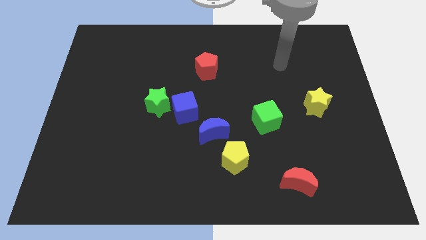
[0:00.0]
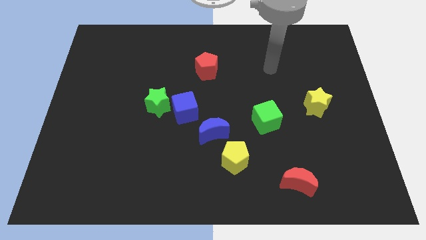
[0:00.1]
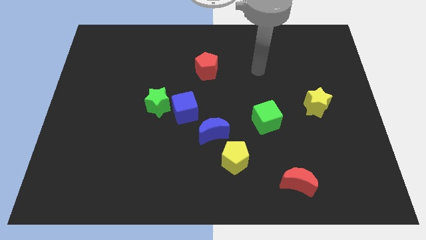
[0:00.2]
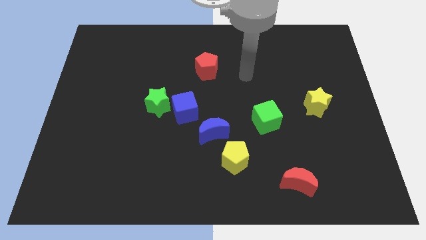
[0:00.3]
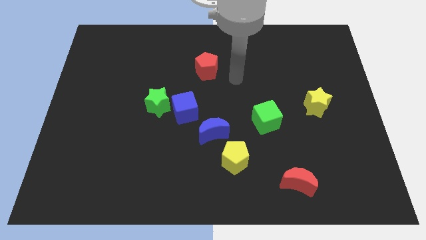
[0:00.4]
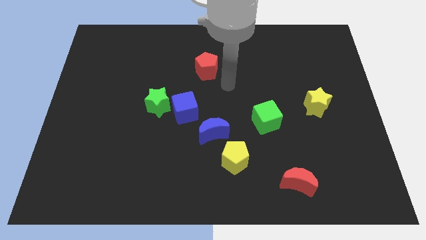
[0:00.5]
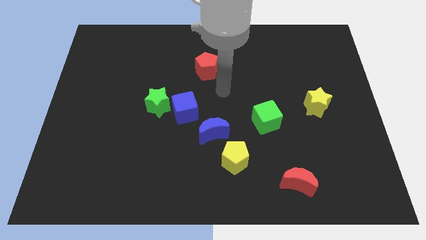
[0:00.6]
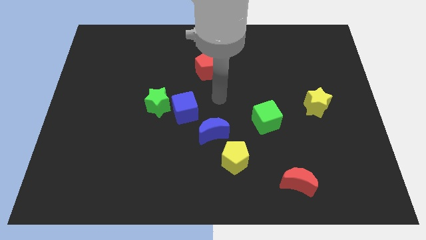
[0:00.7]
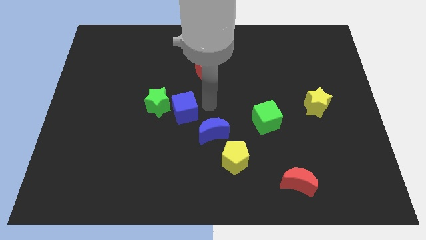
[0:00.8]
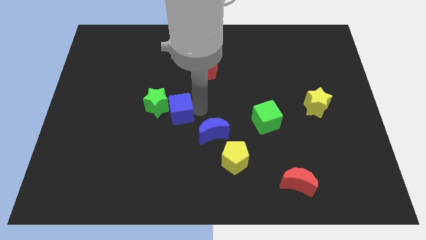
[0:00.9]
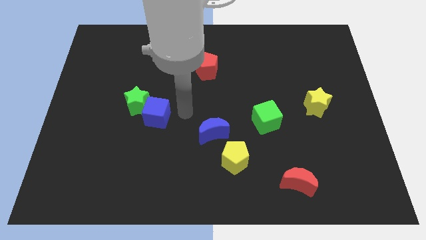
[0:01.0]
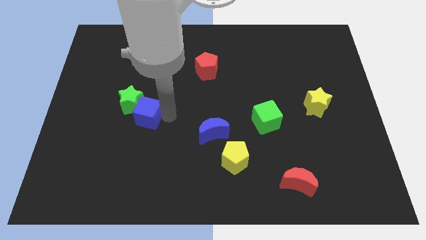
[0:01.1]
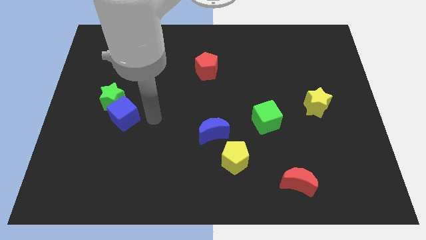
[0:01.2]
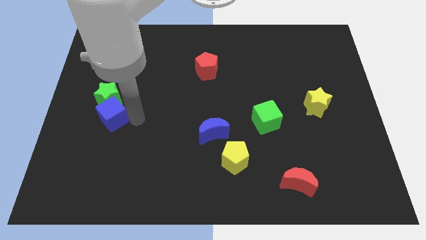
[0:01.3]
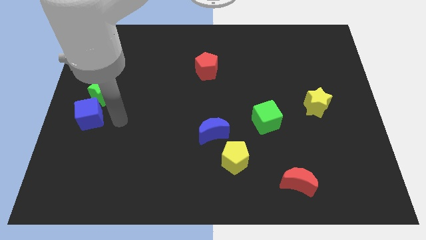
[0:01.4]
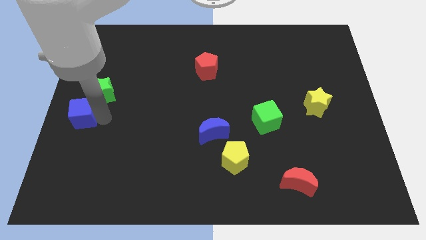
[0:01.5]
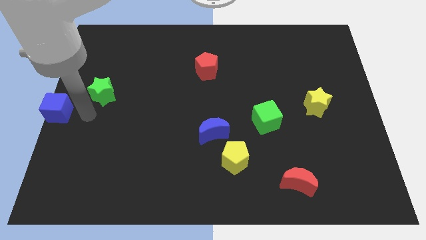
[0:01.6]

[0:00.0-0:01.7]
pull the green star apart from the blue cube

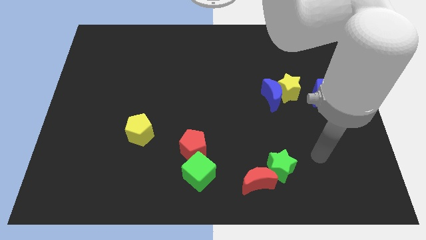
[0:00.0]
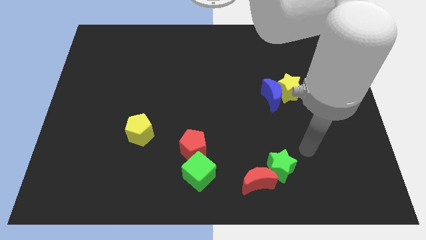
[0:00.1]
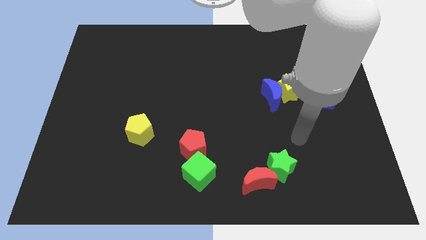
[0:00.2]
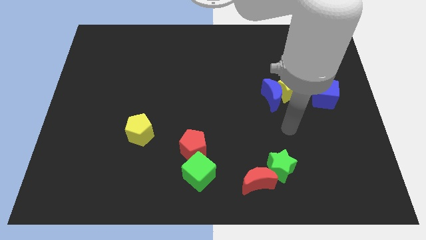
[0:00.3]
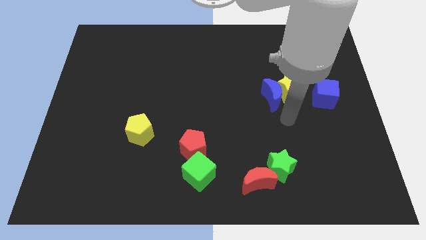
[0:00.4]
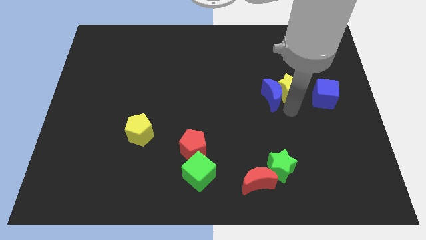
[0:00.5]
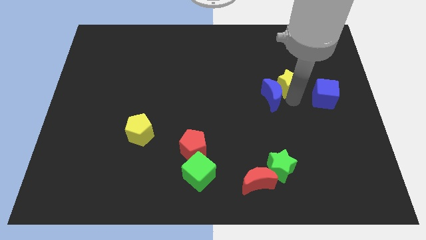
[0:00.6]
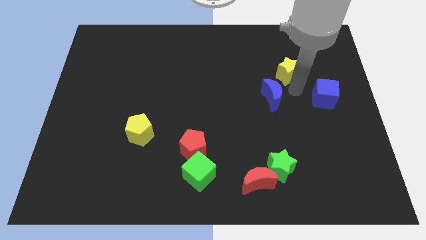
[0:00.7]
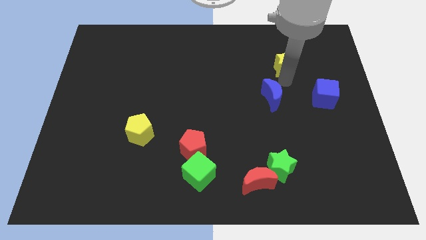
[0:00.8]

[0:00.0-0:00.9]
separate the blue moon from the yellow star

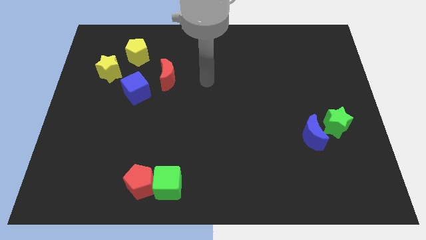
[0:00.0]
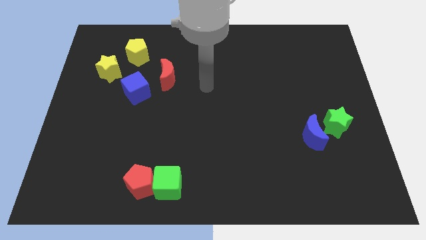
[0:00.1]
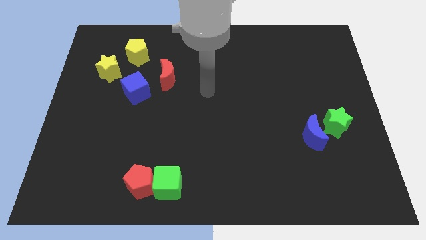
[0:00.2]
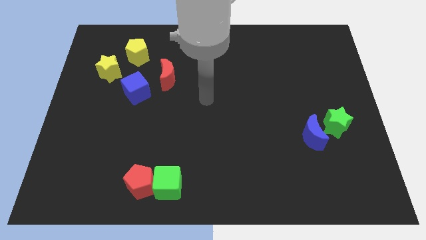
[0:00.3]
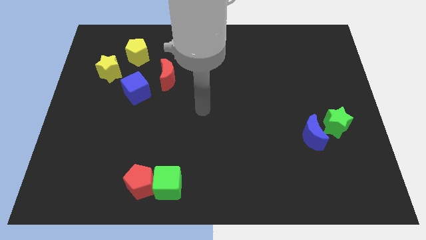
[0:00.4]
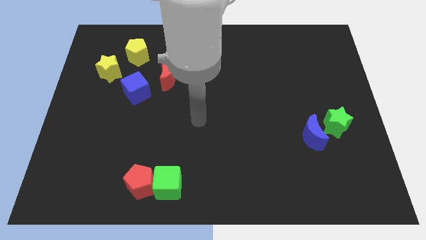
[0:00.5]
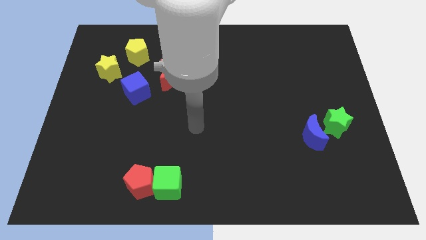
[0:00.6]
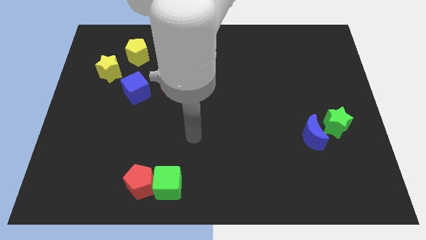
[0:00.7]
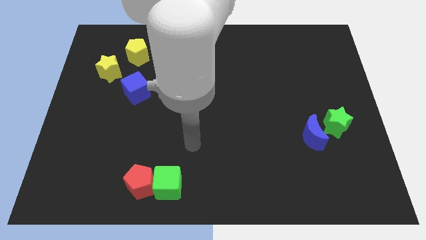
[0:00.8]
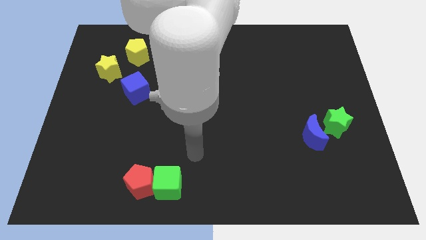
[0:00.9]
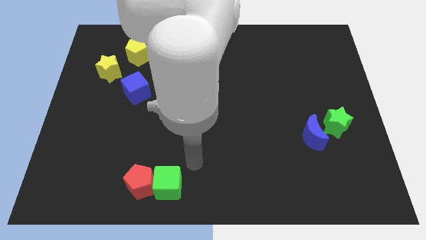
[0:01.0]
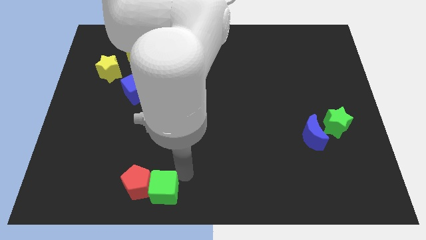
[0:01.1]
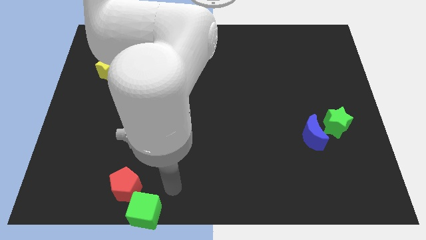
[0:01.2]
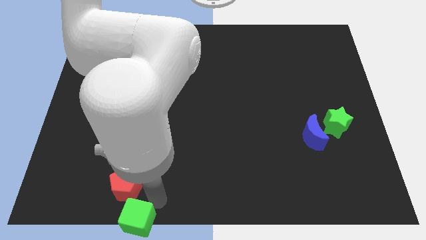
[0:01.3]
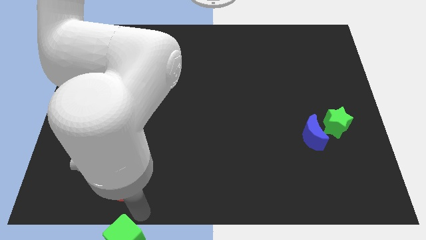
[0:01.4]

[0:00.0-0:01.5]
separate the red pentagon from the green cube

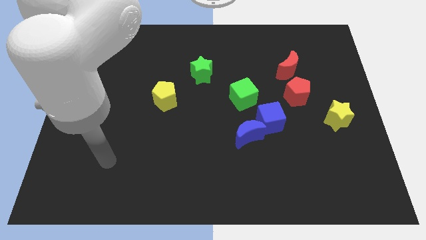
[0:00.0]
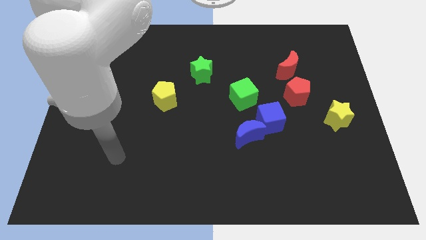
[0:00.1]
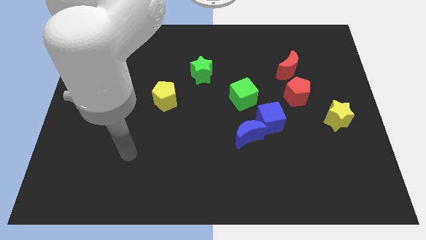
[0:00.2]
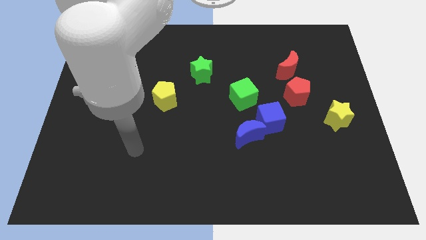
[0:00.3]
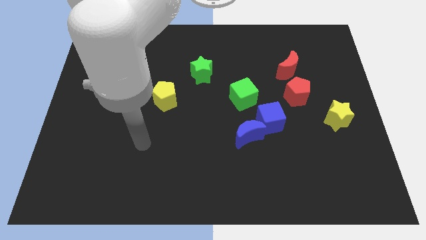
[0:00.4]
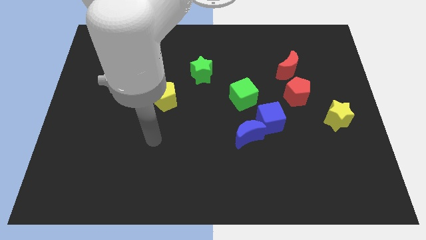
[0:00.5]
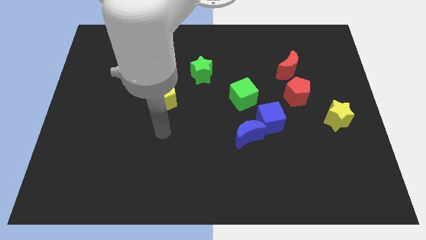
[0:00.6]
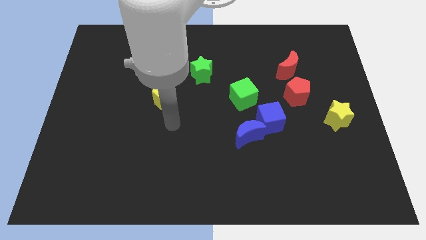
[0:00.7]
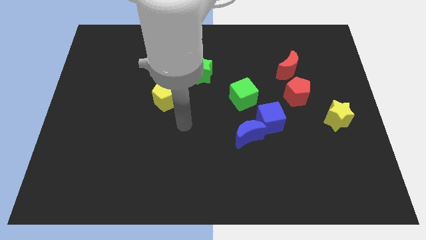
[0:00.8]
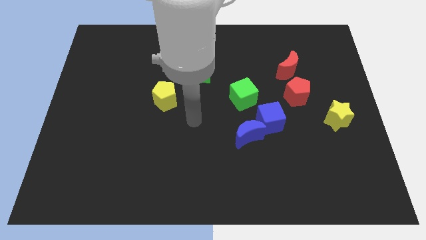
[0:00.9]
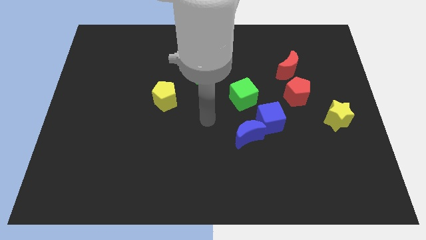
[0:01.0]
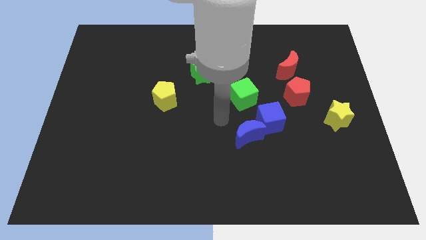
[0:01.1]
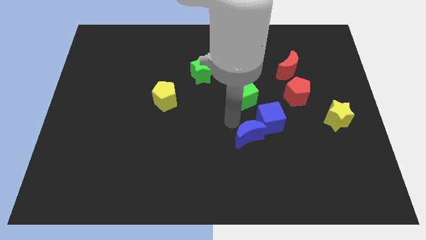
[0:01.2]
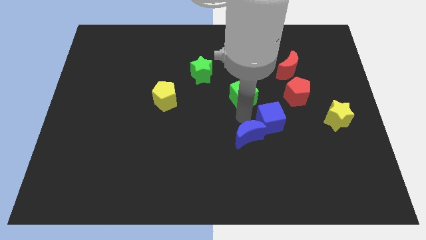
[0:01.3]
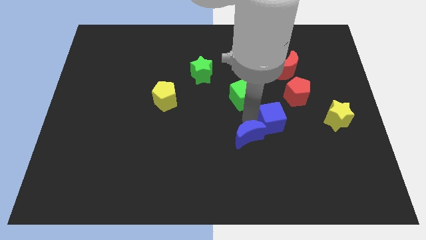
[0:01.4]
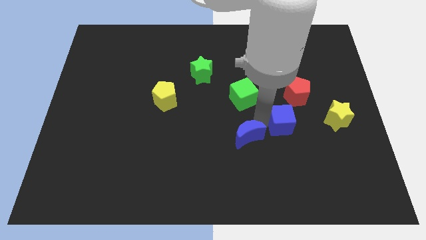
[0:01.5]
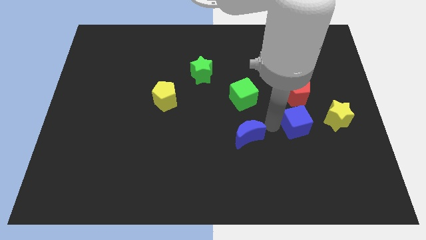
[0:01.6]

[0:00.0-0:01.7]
separate the blue moon from the blue cube

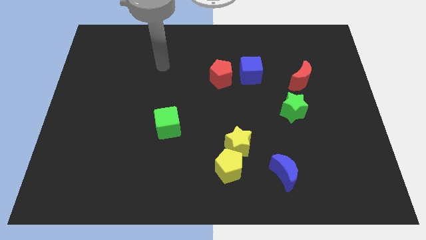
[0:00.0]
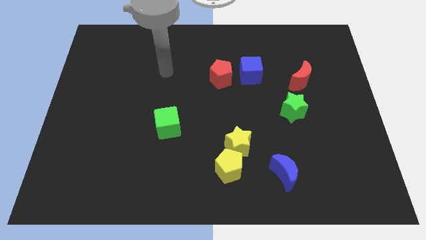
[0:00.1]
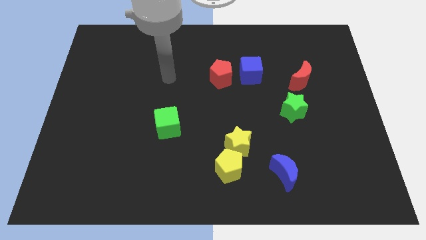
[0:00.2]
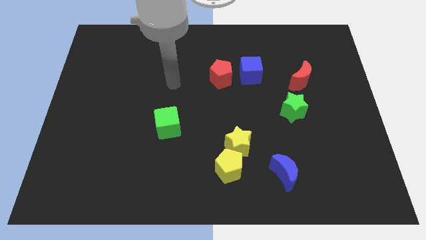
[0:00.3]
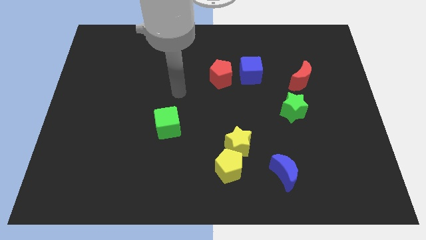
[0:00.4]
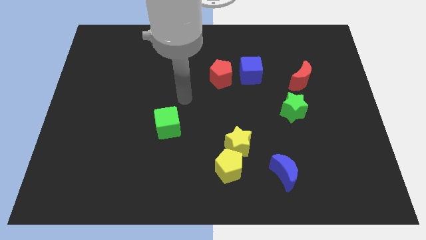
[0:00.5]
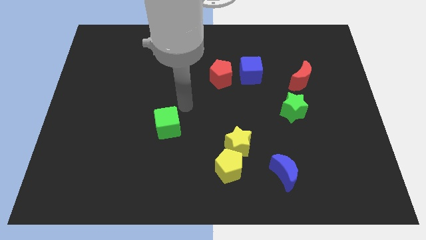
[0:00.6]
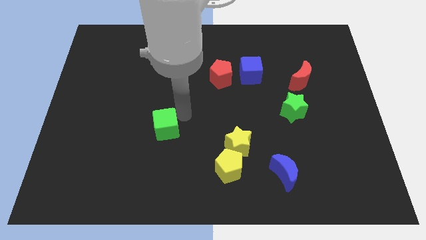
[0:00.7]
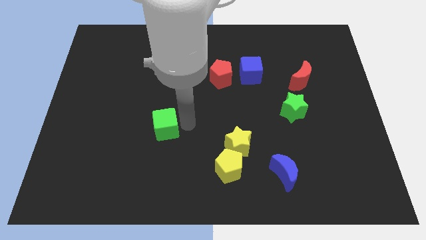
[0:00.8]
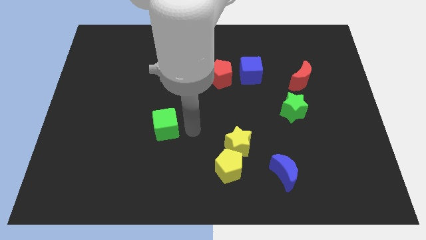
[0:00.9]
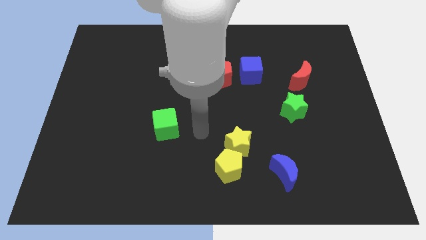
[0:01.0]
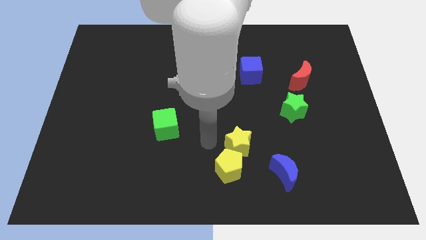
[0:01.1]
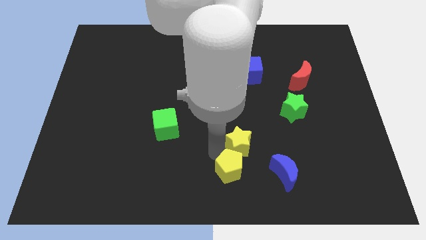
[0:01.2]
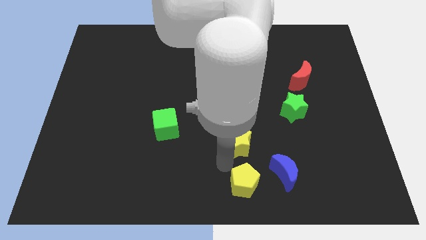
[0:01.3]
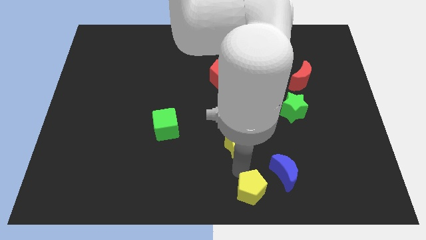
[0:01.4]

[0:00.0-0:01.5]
pull the yellow star apart from the yellow pentagon

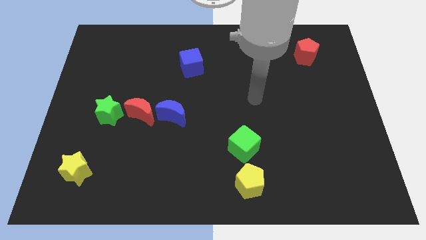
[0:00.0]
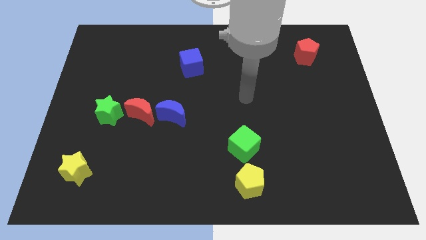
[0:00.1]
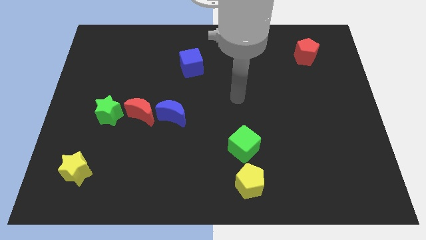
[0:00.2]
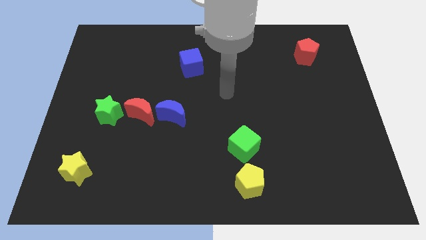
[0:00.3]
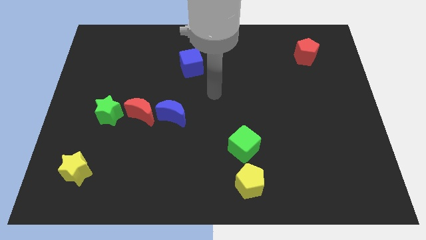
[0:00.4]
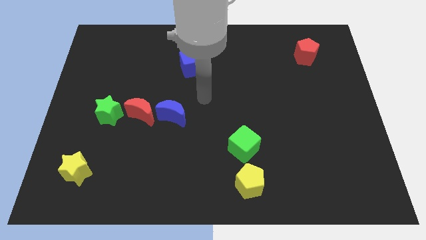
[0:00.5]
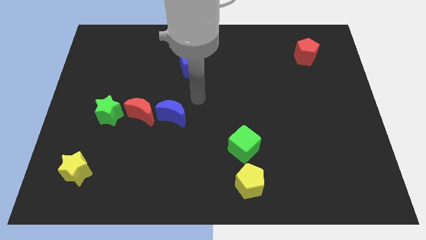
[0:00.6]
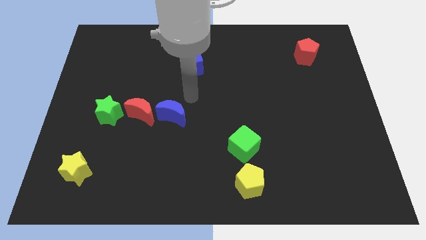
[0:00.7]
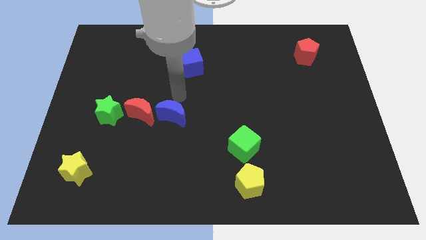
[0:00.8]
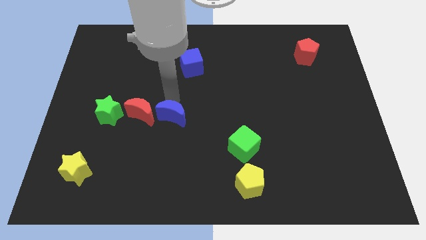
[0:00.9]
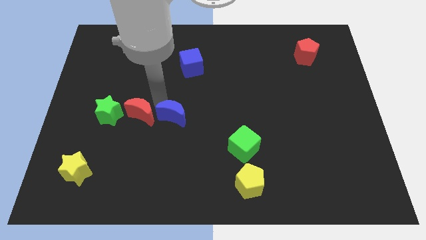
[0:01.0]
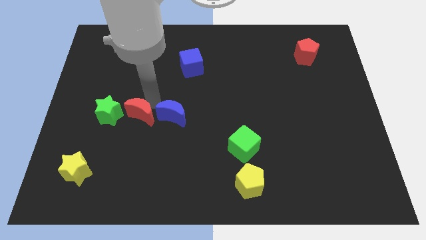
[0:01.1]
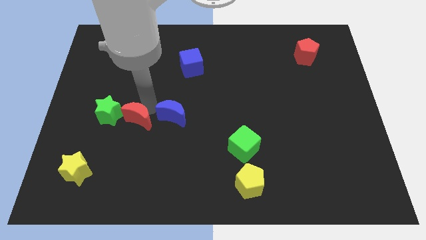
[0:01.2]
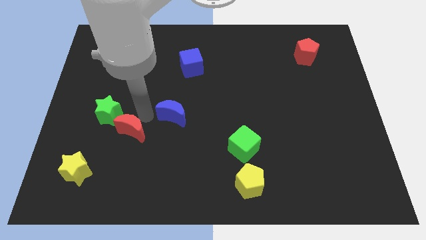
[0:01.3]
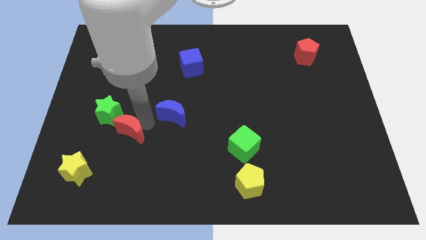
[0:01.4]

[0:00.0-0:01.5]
separate the blue moon from the red moon

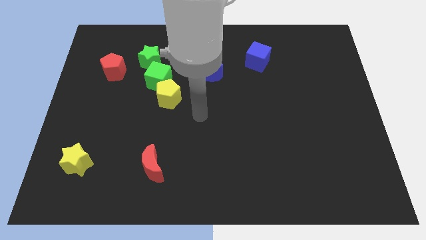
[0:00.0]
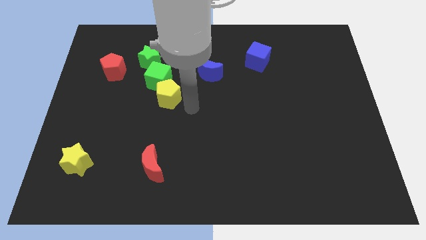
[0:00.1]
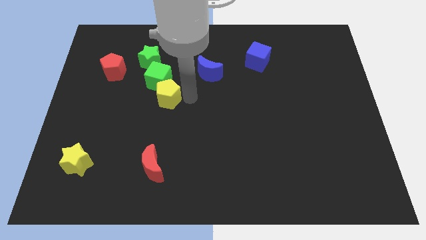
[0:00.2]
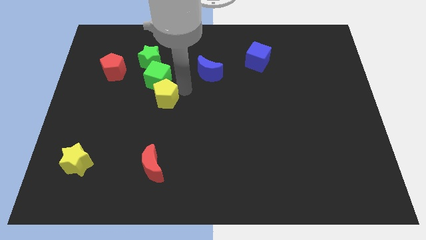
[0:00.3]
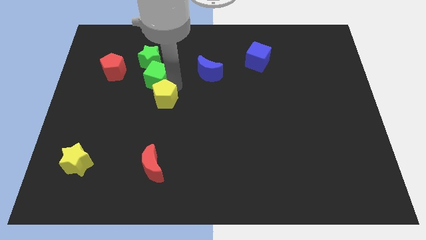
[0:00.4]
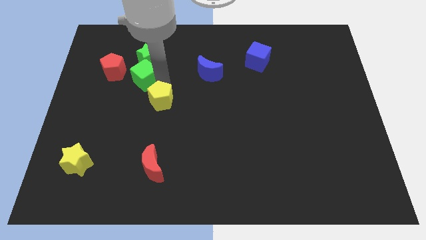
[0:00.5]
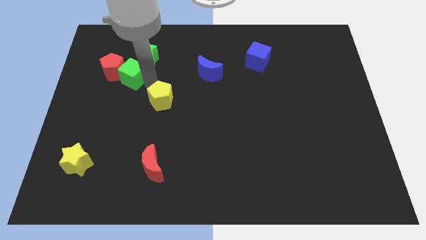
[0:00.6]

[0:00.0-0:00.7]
move the yellow pentagon away from the green cube
